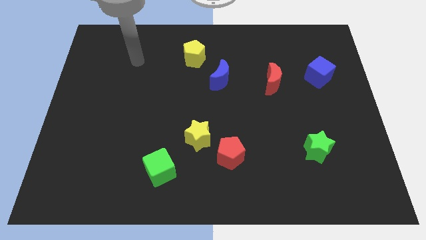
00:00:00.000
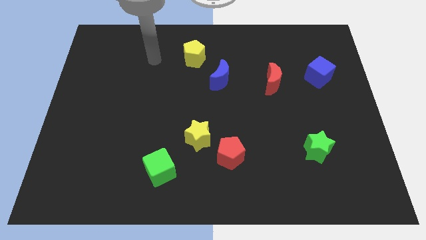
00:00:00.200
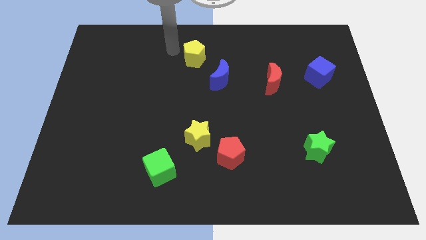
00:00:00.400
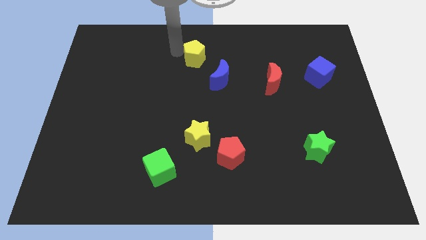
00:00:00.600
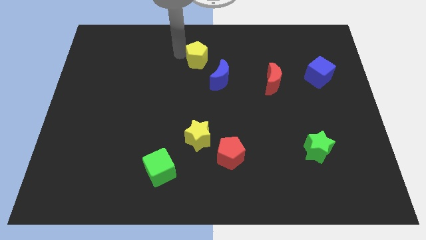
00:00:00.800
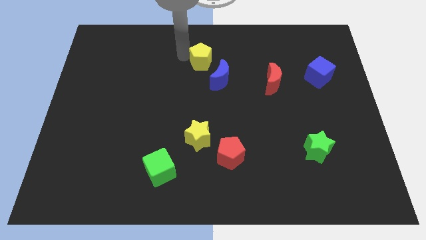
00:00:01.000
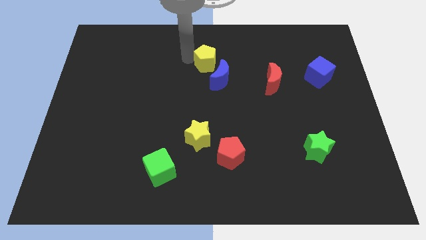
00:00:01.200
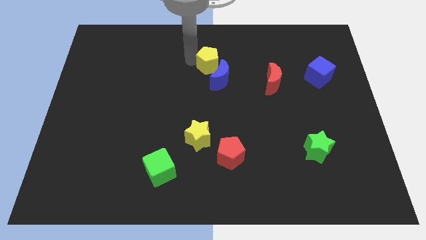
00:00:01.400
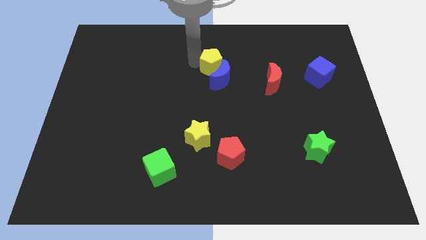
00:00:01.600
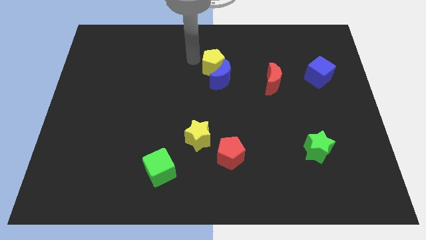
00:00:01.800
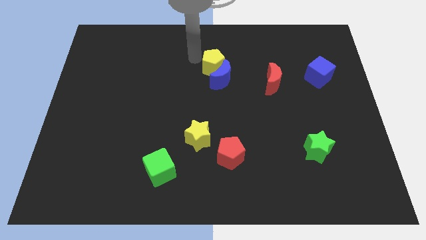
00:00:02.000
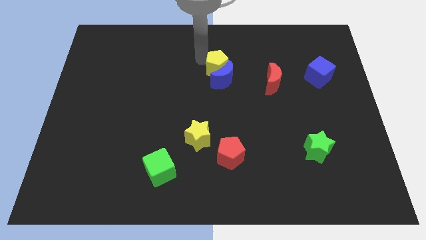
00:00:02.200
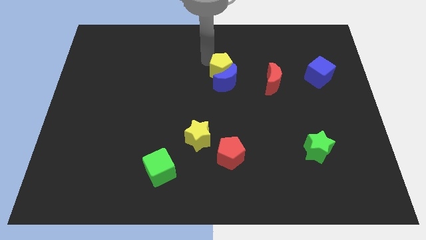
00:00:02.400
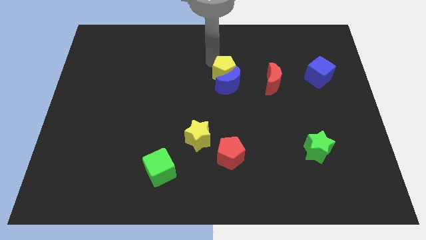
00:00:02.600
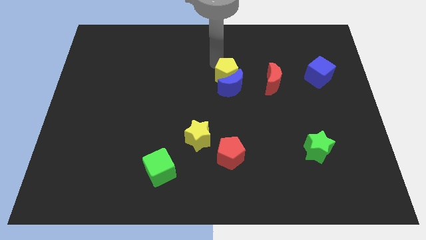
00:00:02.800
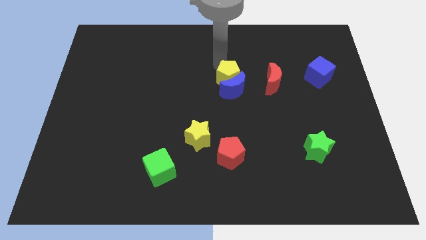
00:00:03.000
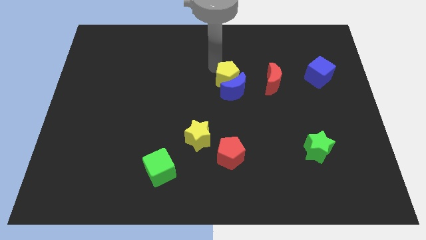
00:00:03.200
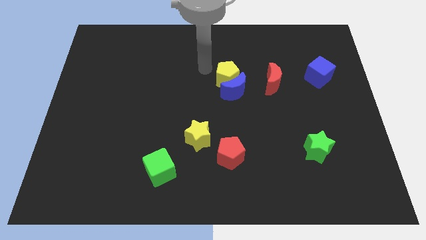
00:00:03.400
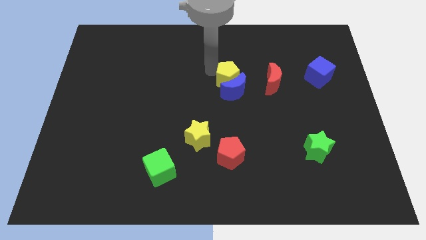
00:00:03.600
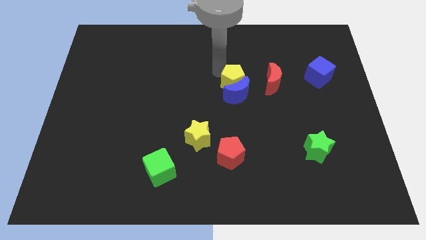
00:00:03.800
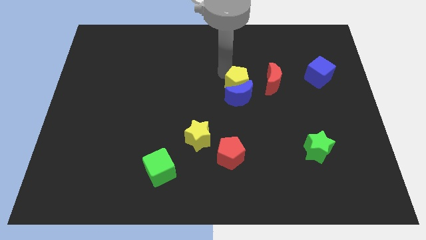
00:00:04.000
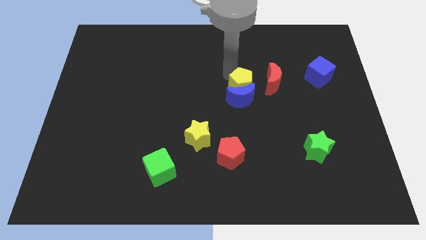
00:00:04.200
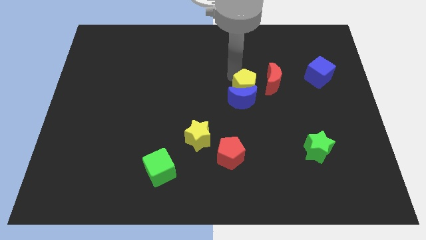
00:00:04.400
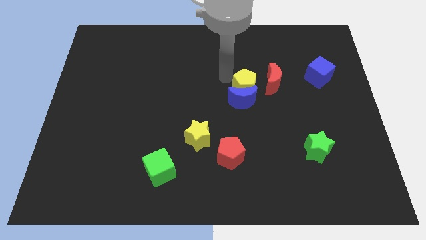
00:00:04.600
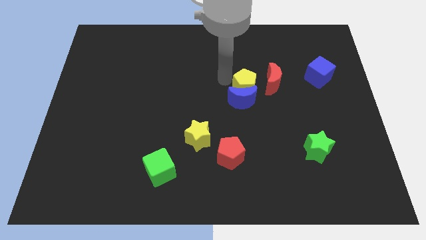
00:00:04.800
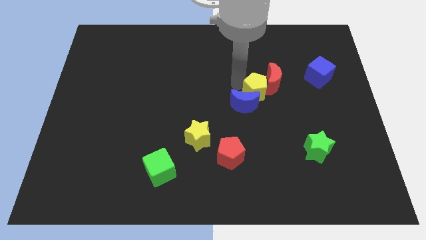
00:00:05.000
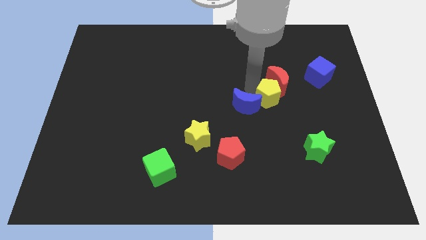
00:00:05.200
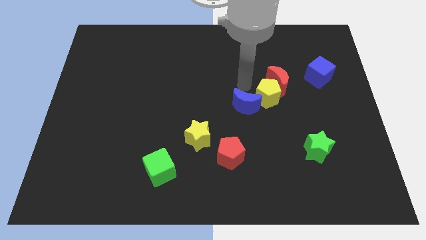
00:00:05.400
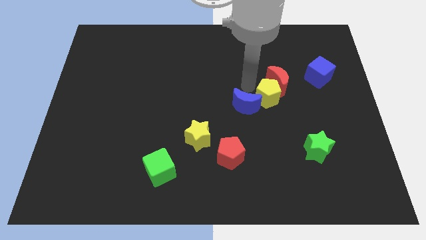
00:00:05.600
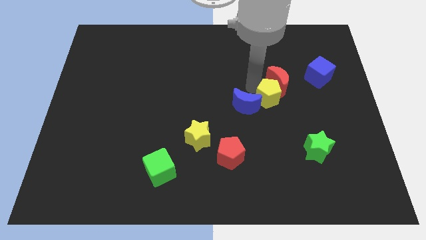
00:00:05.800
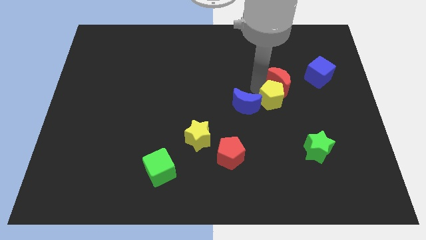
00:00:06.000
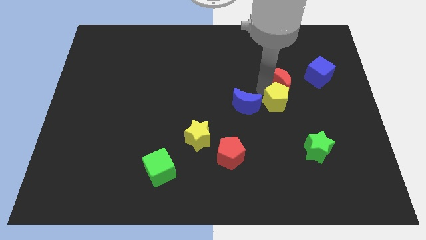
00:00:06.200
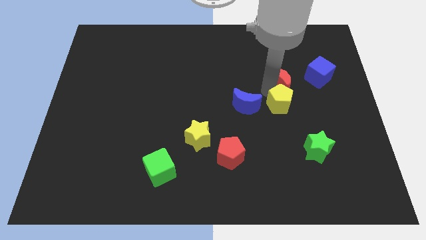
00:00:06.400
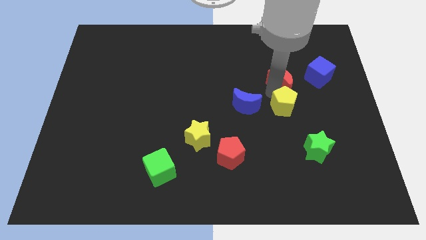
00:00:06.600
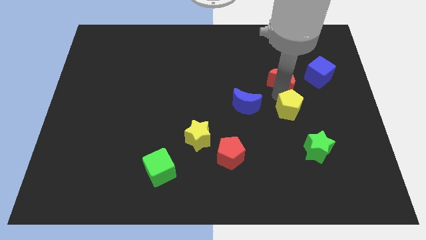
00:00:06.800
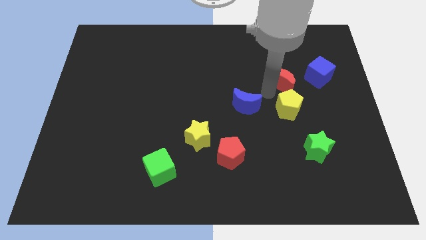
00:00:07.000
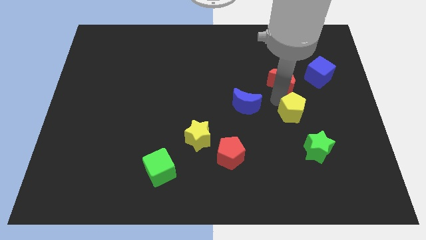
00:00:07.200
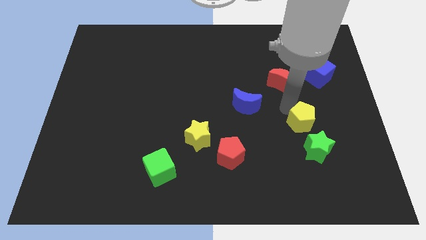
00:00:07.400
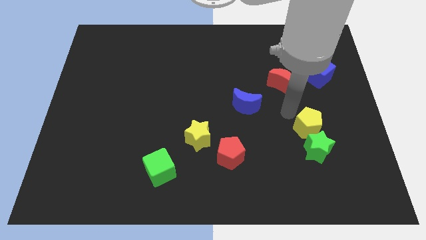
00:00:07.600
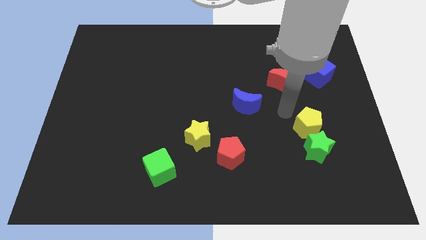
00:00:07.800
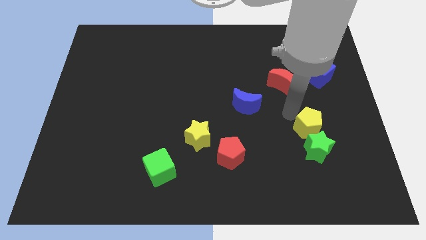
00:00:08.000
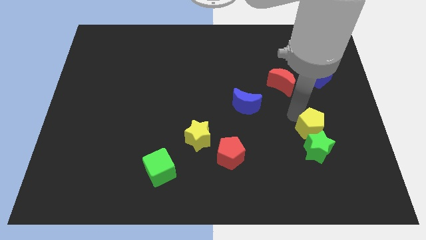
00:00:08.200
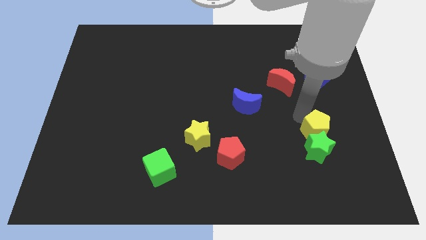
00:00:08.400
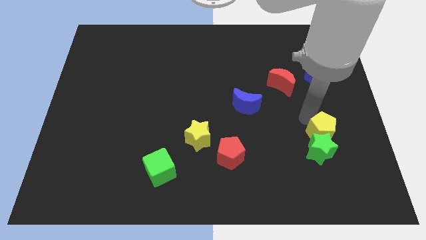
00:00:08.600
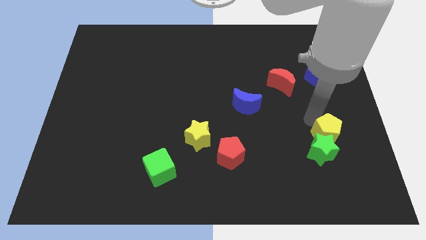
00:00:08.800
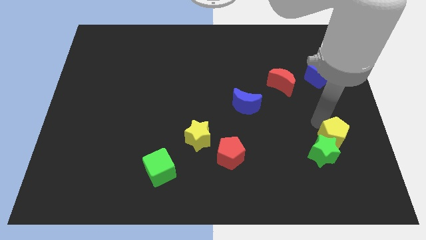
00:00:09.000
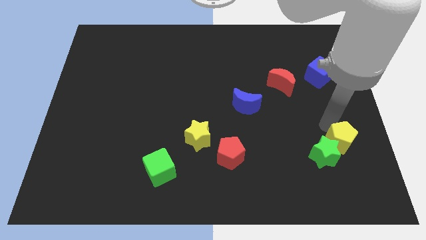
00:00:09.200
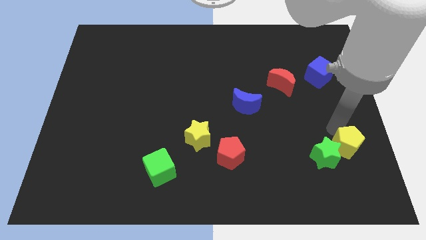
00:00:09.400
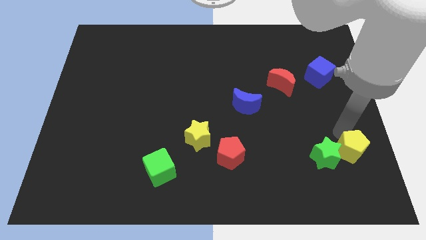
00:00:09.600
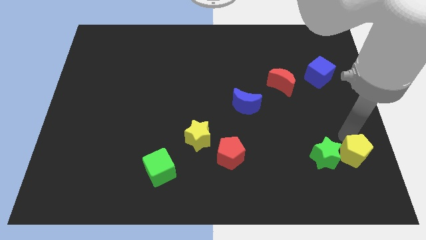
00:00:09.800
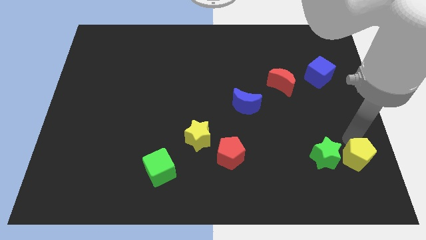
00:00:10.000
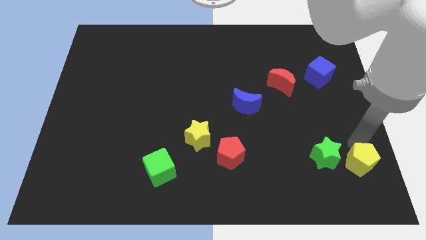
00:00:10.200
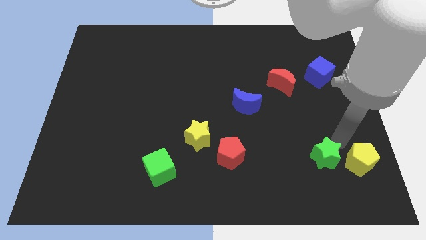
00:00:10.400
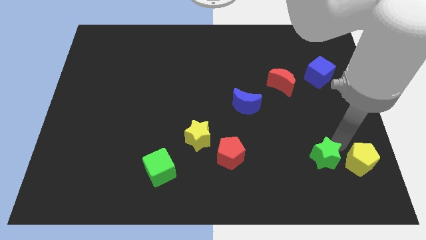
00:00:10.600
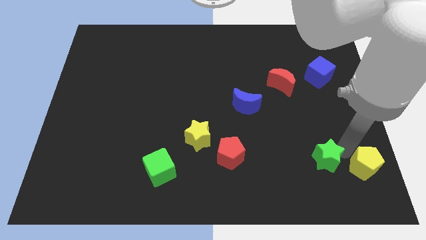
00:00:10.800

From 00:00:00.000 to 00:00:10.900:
push the yellow pentagon to the bottom right of the board

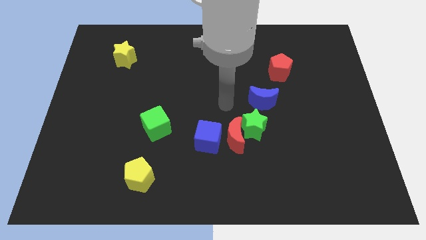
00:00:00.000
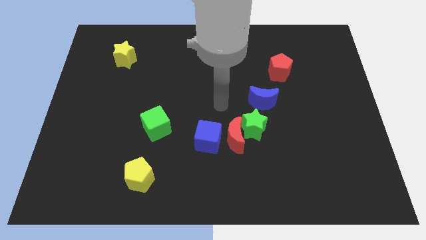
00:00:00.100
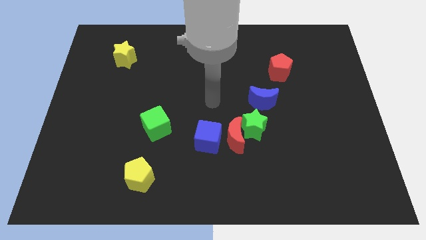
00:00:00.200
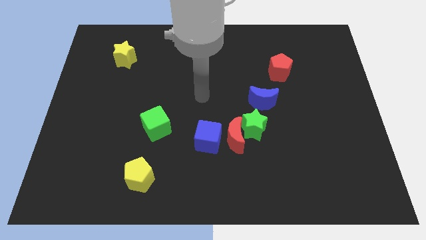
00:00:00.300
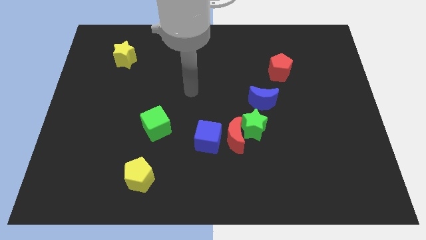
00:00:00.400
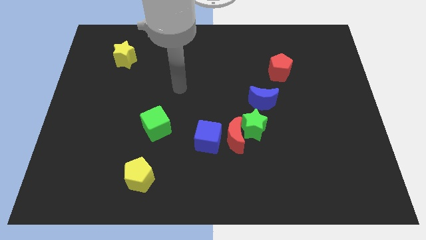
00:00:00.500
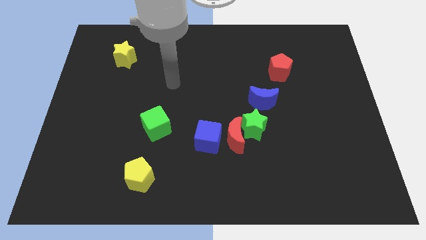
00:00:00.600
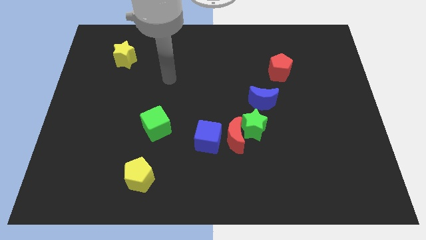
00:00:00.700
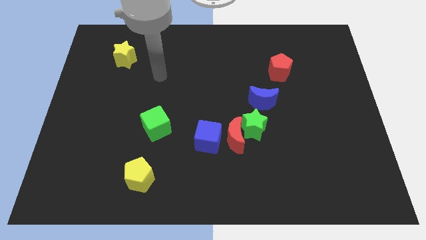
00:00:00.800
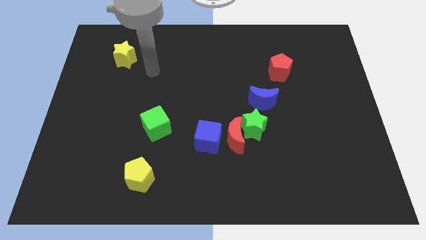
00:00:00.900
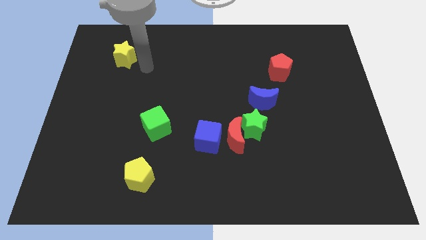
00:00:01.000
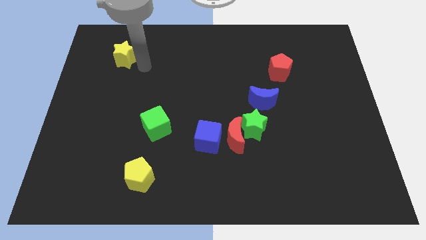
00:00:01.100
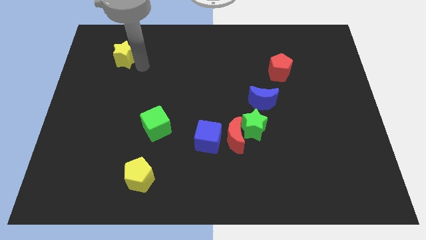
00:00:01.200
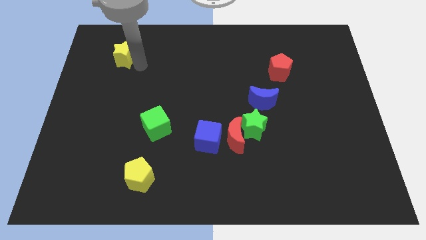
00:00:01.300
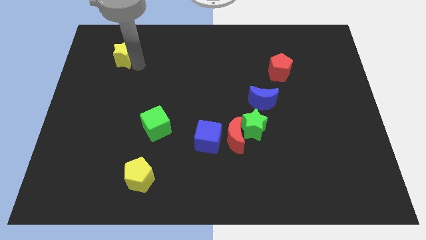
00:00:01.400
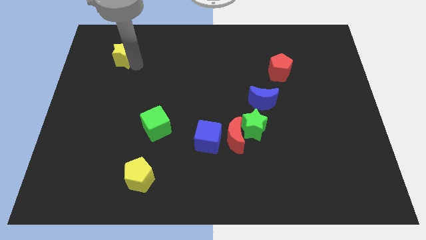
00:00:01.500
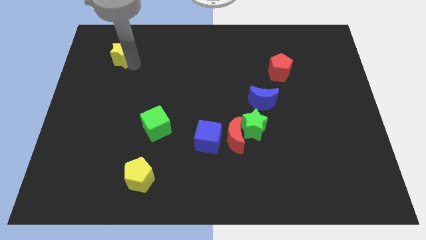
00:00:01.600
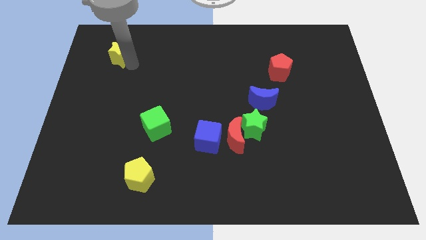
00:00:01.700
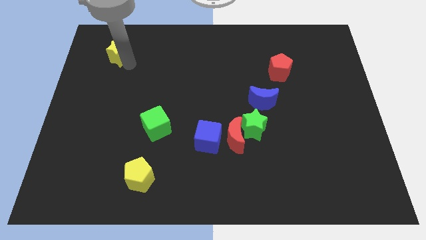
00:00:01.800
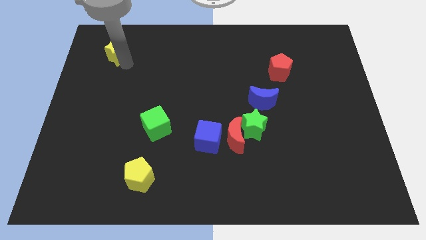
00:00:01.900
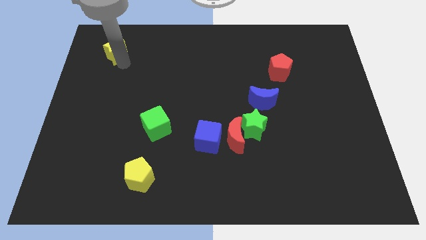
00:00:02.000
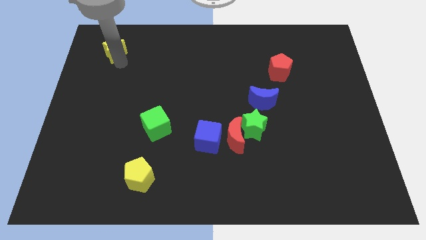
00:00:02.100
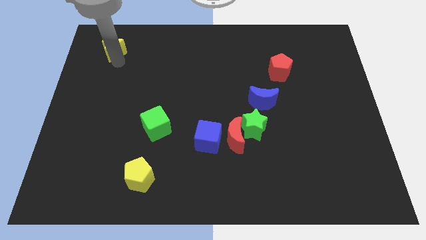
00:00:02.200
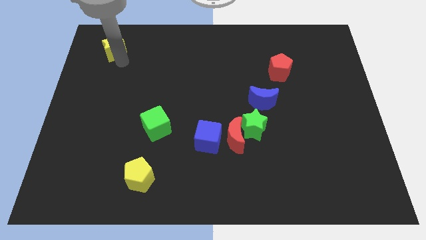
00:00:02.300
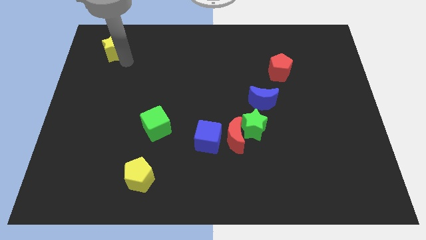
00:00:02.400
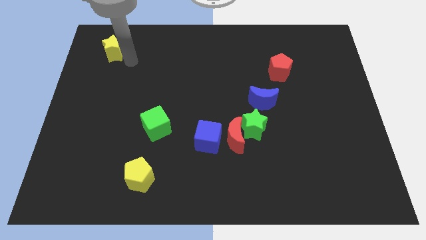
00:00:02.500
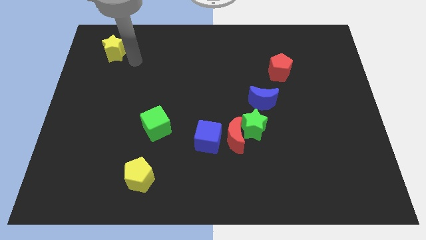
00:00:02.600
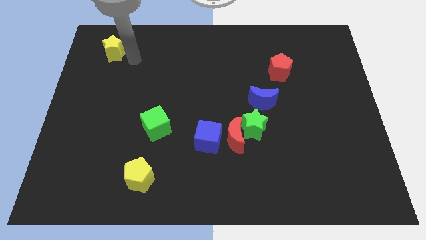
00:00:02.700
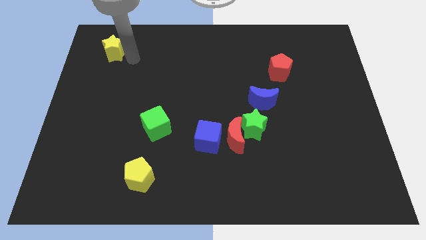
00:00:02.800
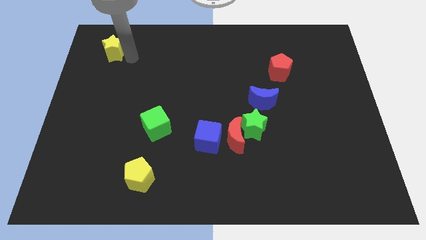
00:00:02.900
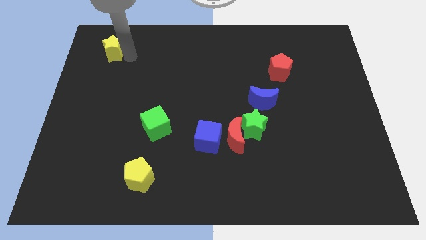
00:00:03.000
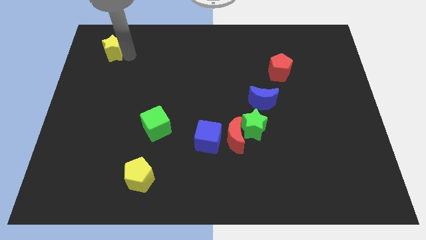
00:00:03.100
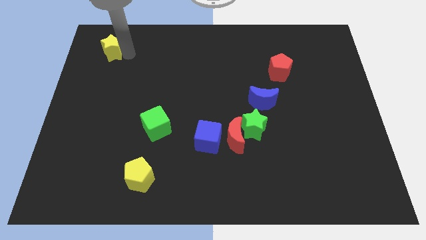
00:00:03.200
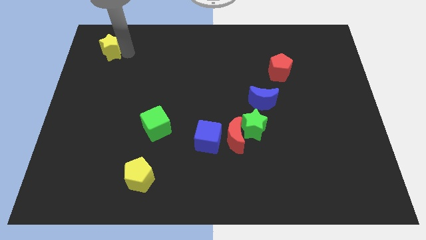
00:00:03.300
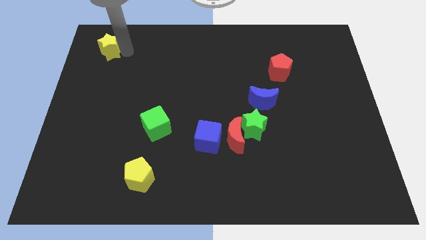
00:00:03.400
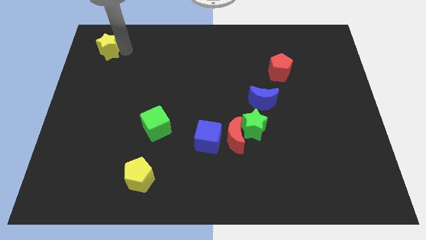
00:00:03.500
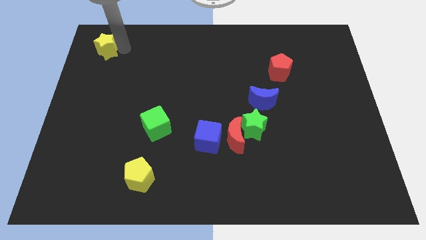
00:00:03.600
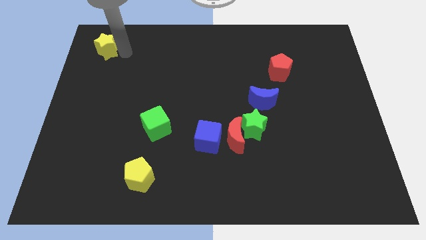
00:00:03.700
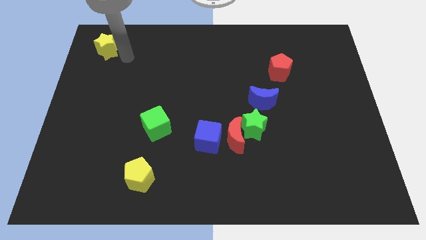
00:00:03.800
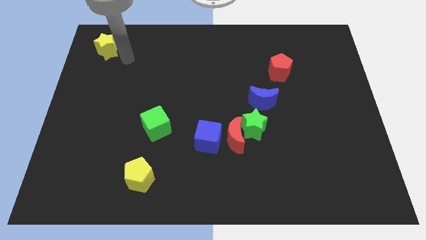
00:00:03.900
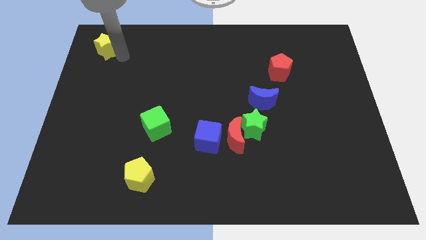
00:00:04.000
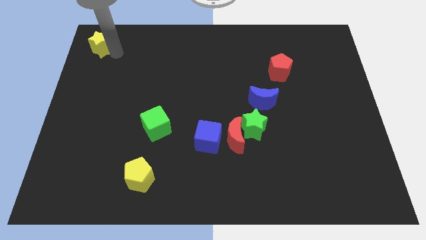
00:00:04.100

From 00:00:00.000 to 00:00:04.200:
move the yellow star to the top left of the board
